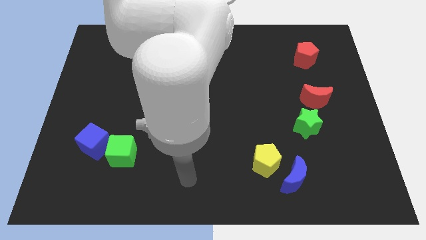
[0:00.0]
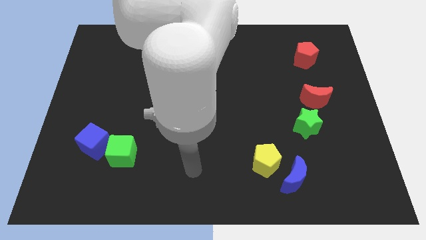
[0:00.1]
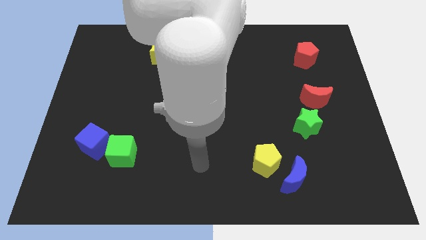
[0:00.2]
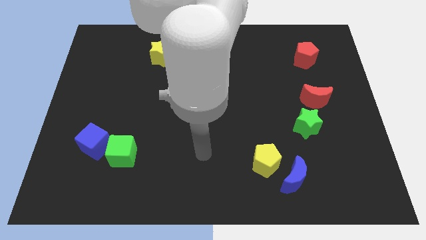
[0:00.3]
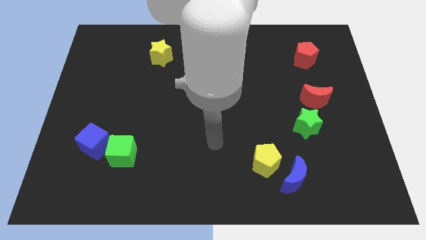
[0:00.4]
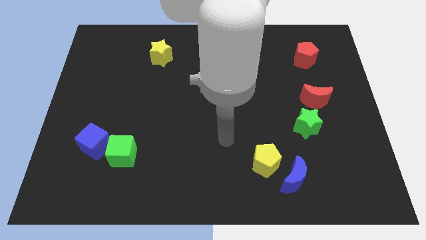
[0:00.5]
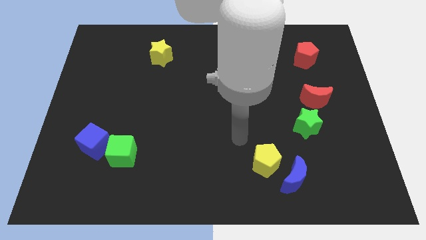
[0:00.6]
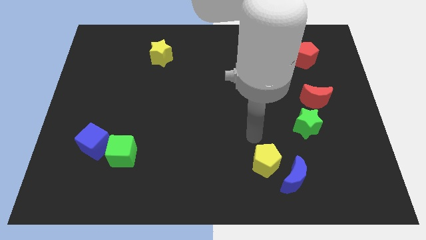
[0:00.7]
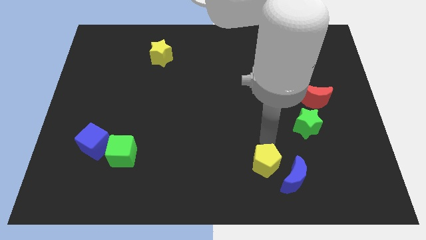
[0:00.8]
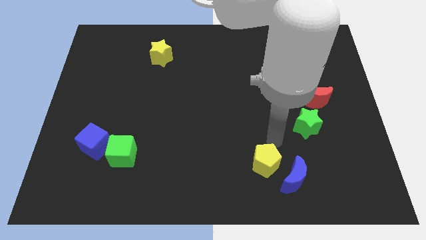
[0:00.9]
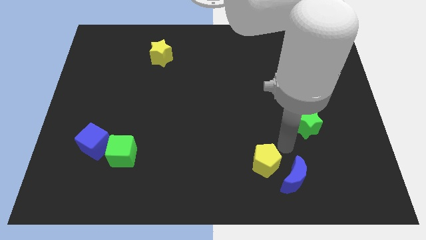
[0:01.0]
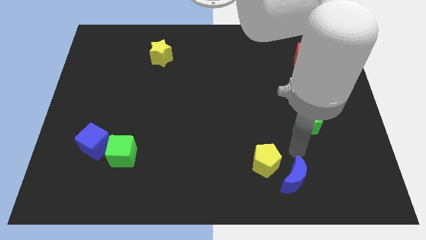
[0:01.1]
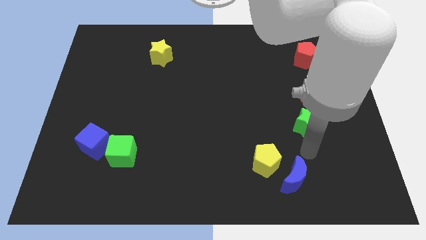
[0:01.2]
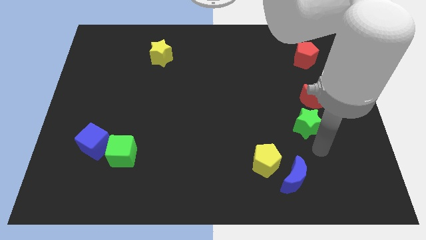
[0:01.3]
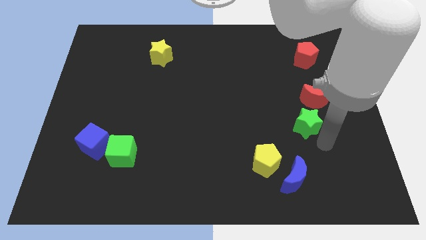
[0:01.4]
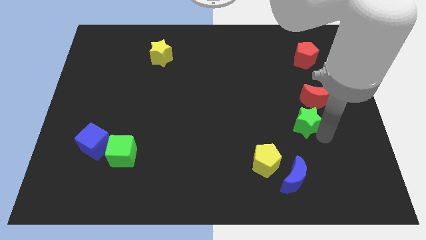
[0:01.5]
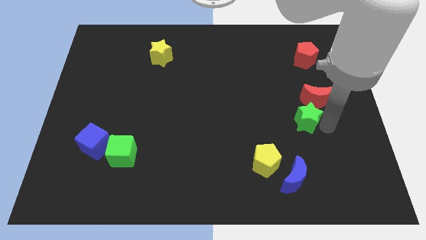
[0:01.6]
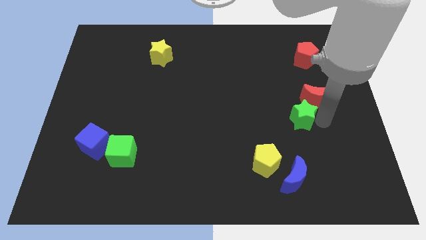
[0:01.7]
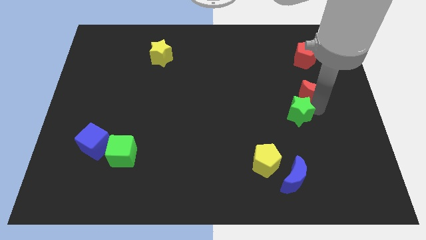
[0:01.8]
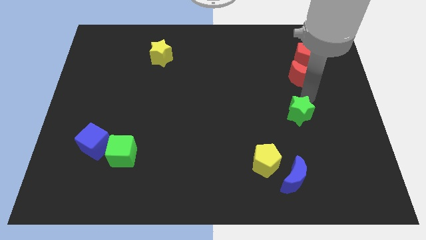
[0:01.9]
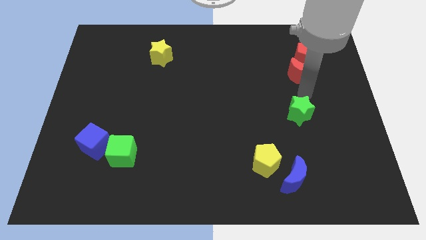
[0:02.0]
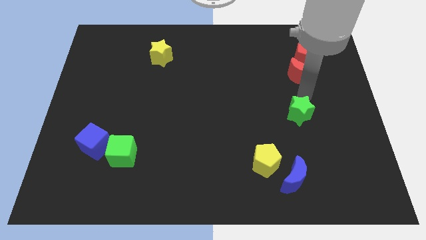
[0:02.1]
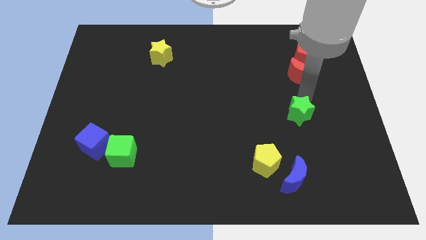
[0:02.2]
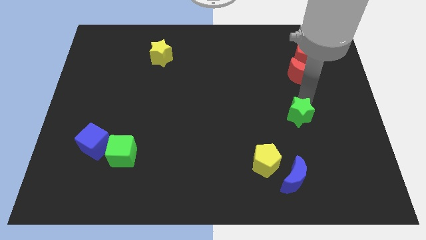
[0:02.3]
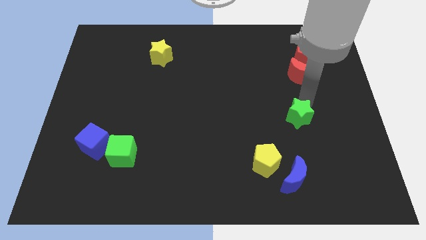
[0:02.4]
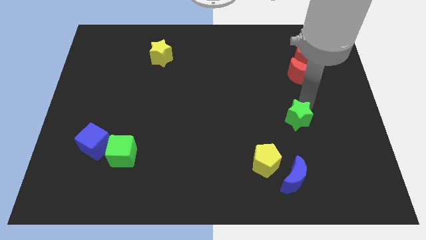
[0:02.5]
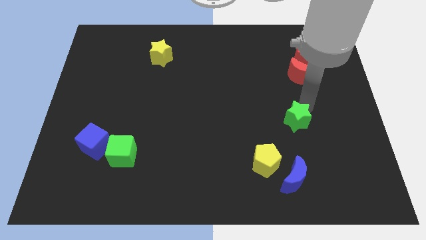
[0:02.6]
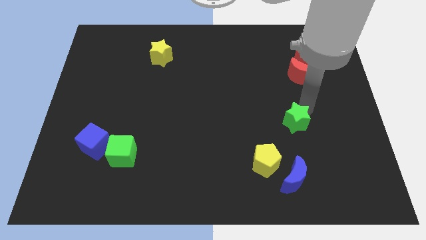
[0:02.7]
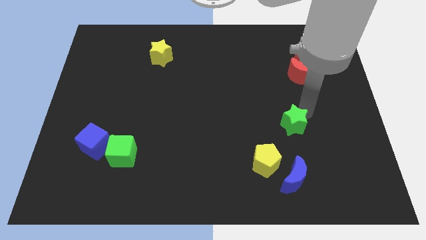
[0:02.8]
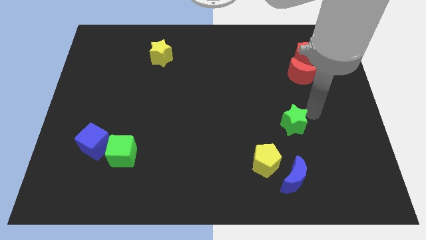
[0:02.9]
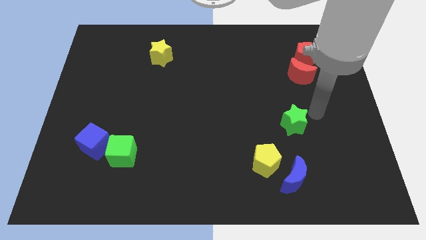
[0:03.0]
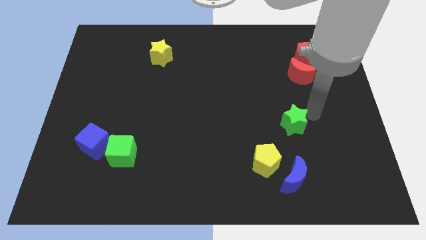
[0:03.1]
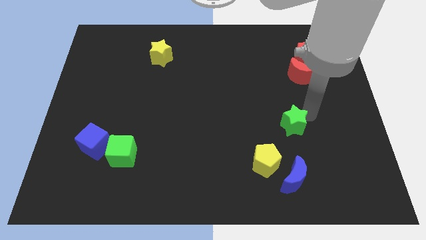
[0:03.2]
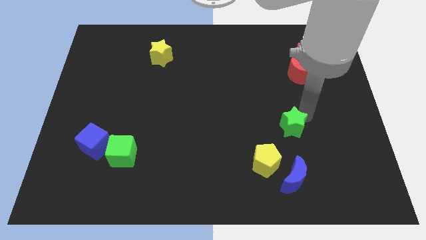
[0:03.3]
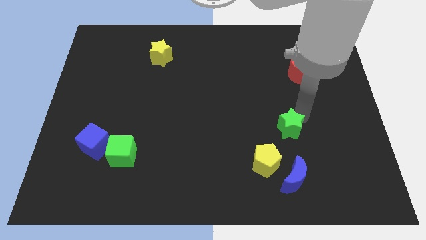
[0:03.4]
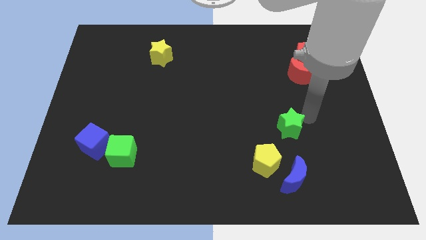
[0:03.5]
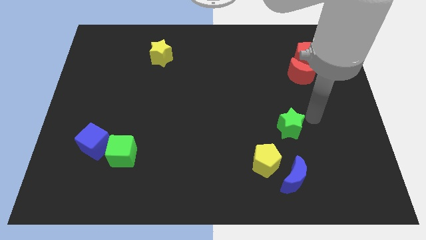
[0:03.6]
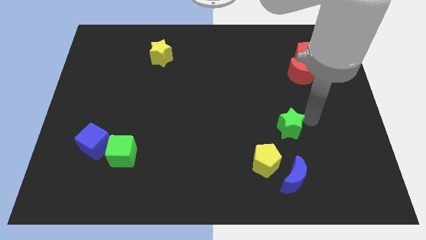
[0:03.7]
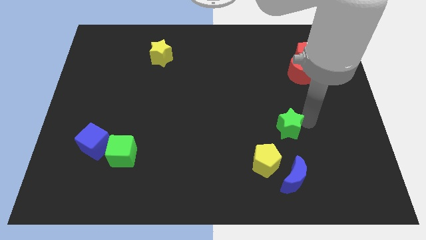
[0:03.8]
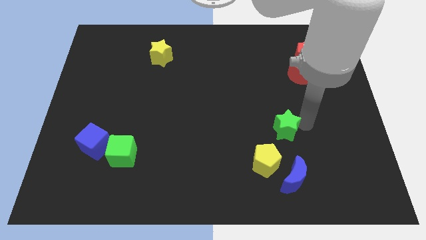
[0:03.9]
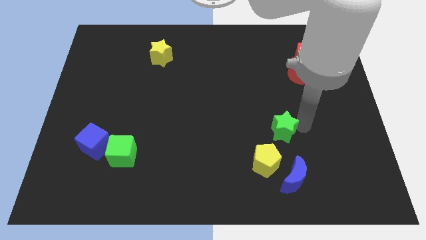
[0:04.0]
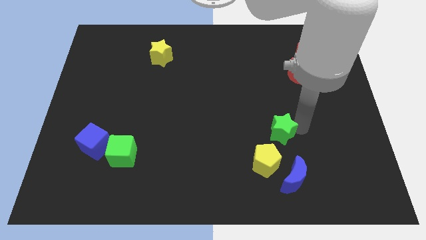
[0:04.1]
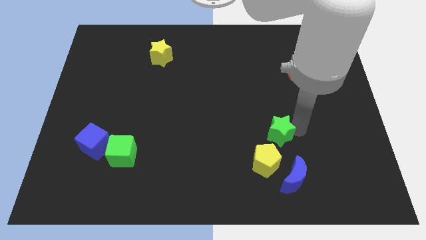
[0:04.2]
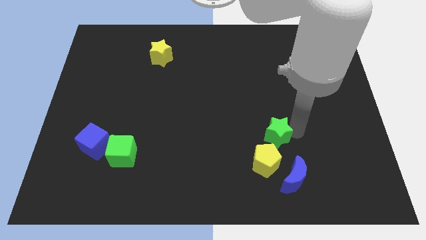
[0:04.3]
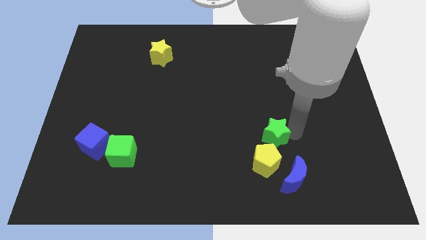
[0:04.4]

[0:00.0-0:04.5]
slightly push the green star diagonally downwards and left

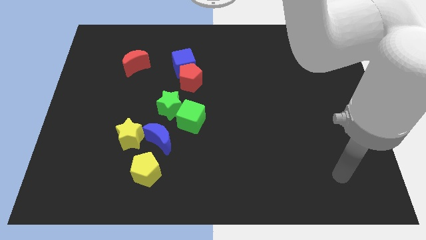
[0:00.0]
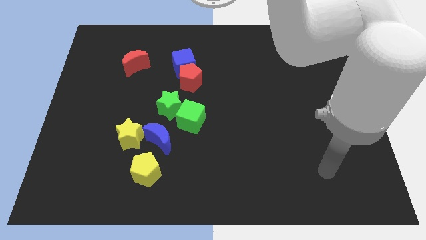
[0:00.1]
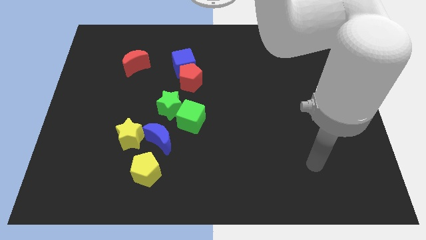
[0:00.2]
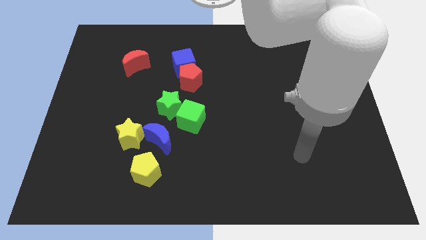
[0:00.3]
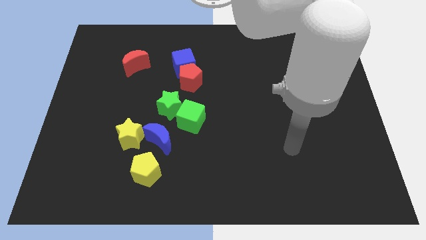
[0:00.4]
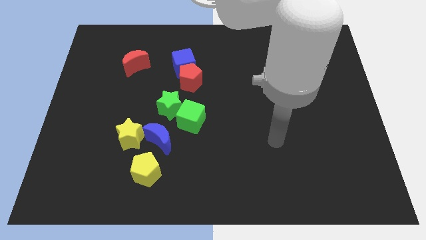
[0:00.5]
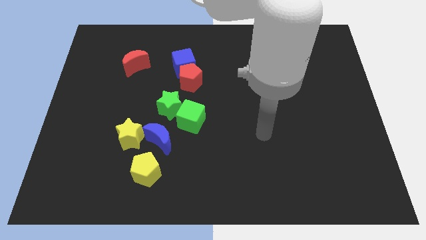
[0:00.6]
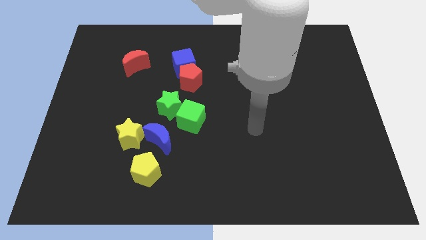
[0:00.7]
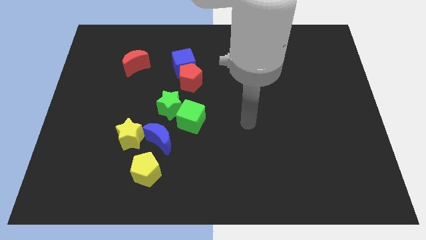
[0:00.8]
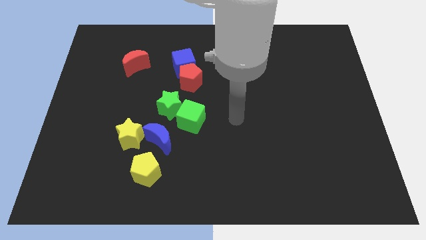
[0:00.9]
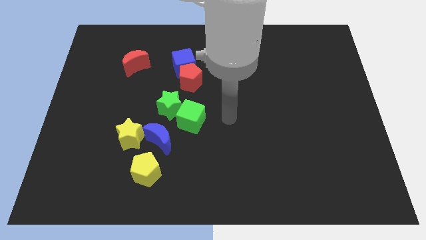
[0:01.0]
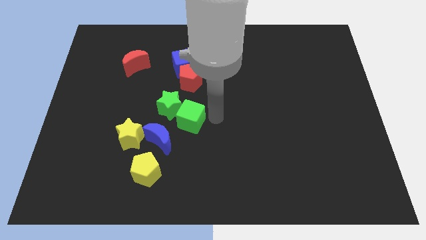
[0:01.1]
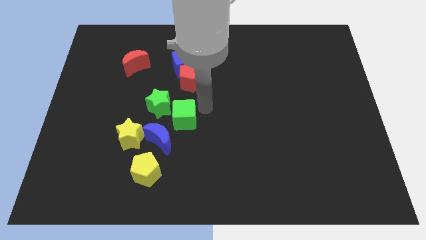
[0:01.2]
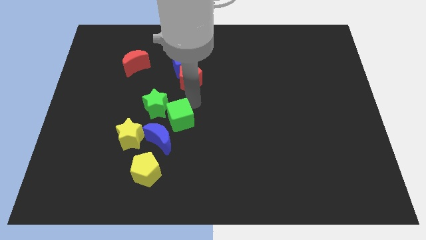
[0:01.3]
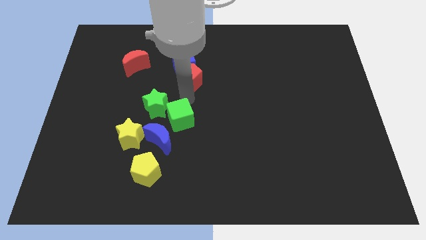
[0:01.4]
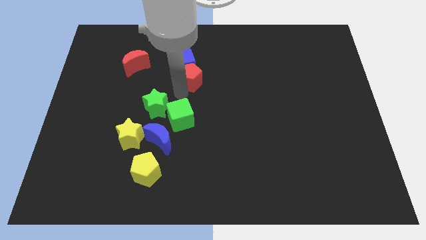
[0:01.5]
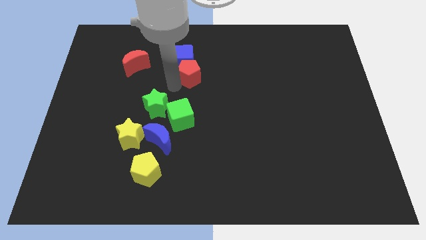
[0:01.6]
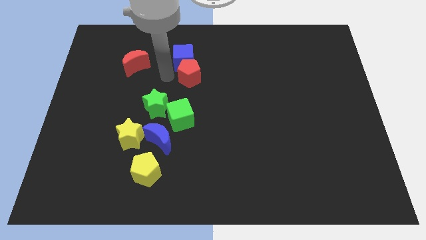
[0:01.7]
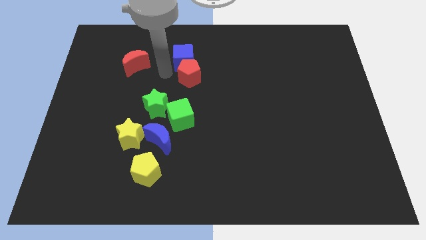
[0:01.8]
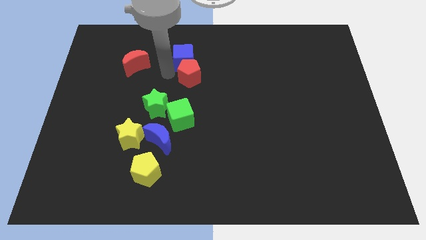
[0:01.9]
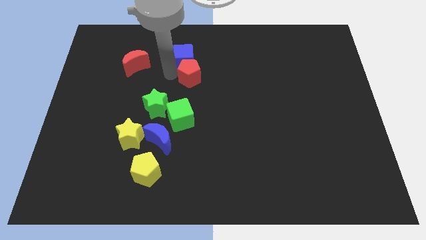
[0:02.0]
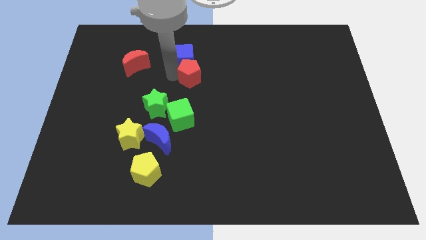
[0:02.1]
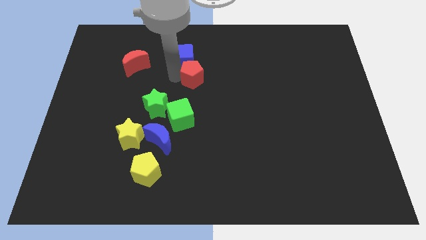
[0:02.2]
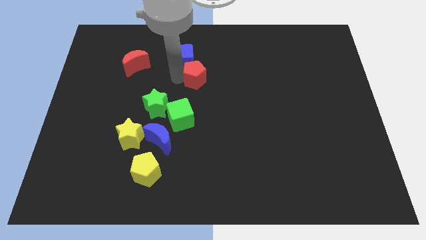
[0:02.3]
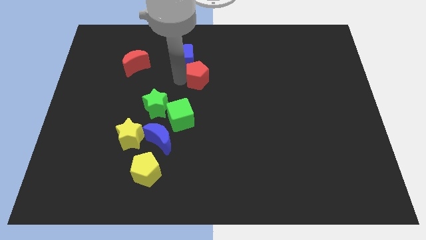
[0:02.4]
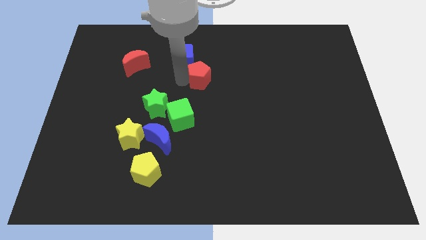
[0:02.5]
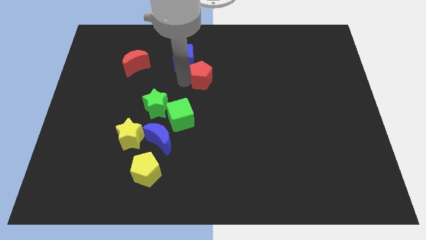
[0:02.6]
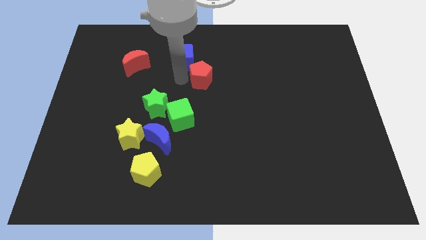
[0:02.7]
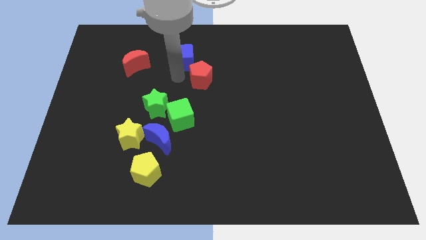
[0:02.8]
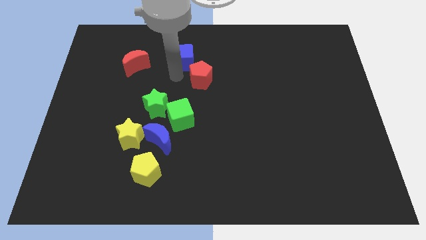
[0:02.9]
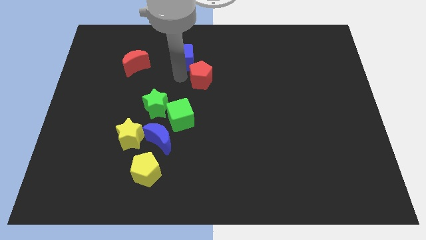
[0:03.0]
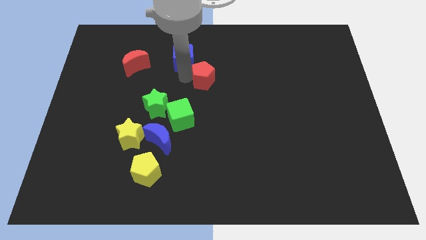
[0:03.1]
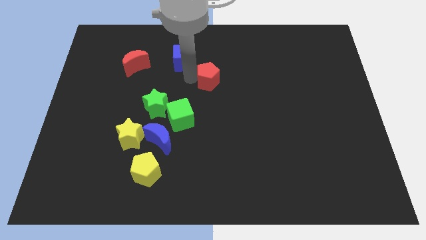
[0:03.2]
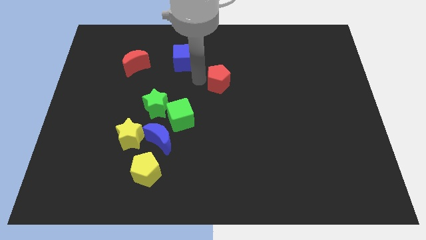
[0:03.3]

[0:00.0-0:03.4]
push the red pentagon to the right a bit

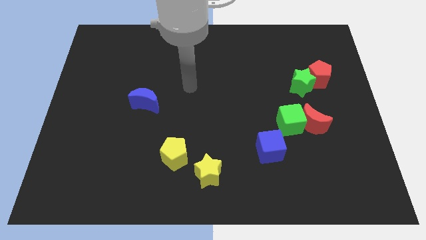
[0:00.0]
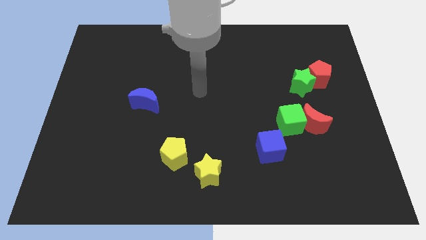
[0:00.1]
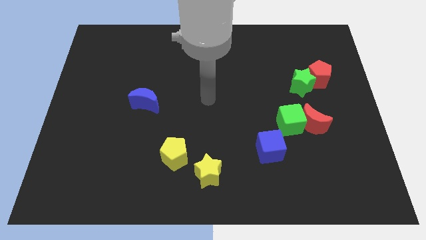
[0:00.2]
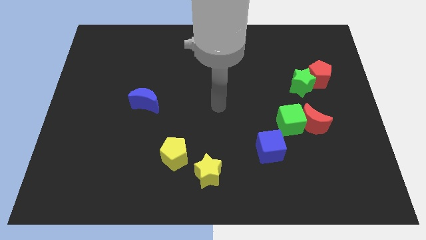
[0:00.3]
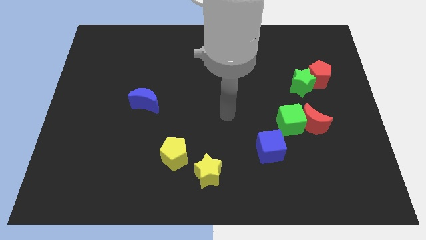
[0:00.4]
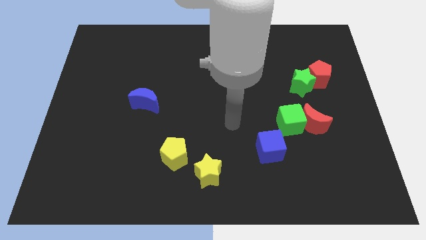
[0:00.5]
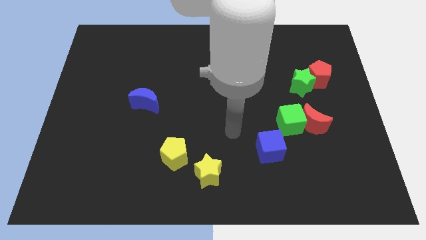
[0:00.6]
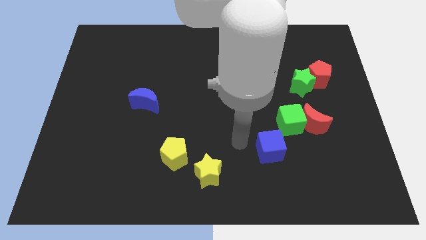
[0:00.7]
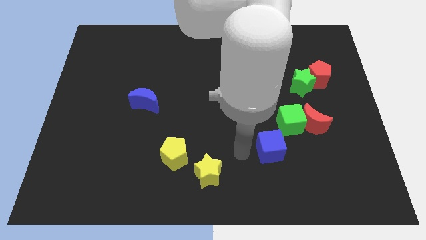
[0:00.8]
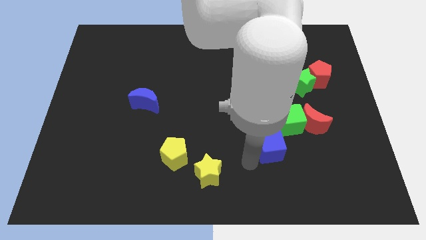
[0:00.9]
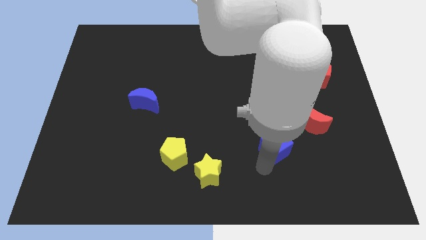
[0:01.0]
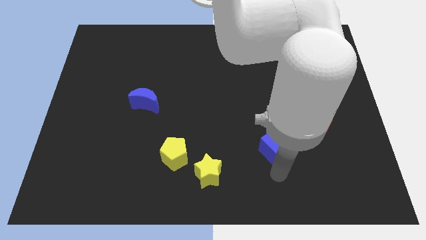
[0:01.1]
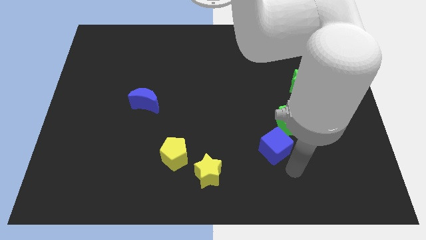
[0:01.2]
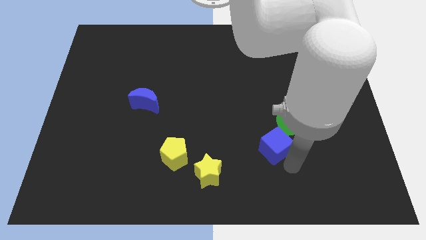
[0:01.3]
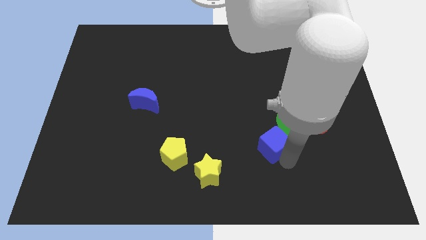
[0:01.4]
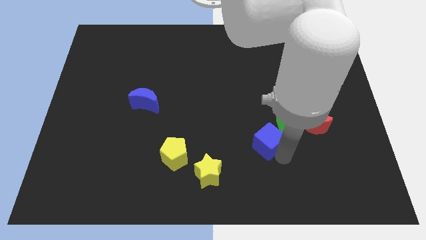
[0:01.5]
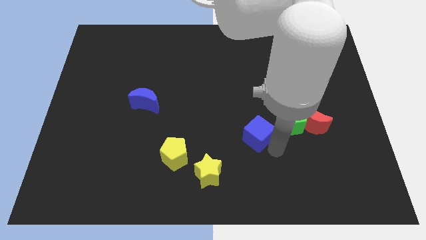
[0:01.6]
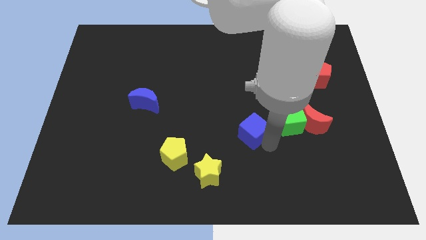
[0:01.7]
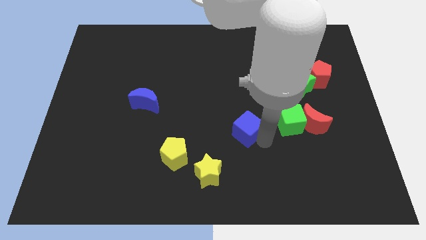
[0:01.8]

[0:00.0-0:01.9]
move the blue cube upwards and then left slightly
